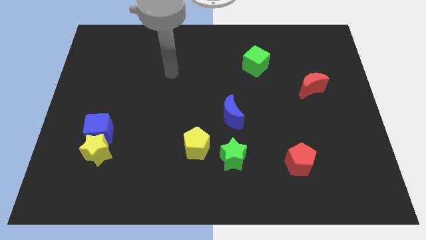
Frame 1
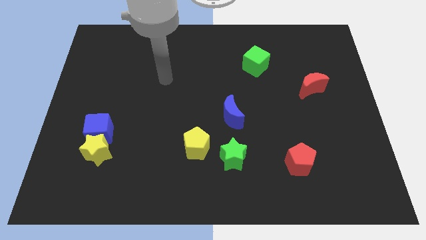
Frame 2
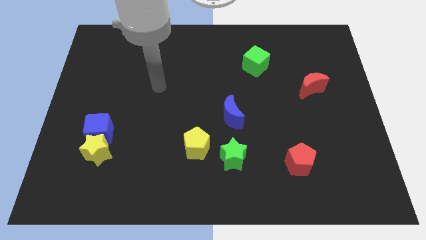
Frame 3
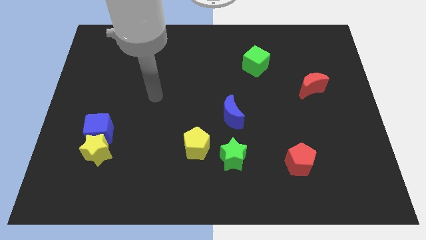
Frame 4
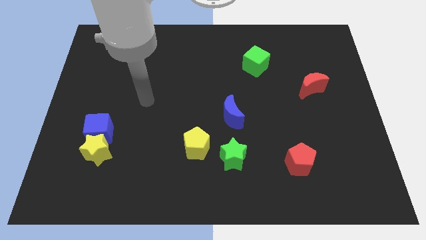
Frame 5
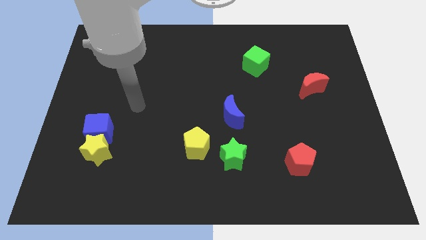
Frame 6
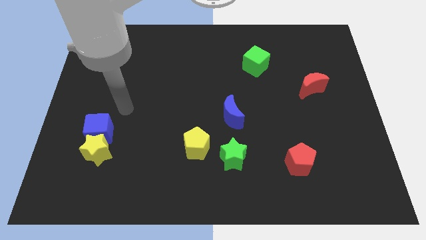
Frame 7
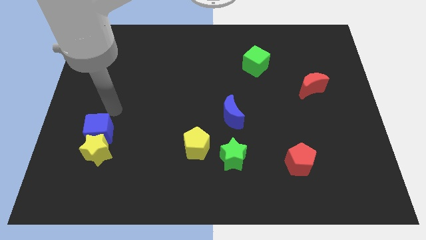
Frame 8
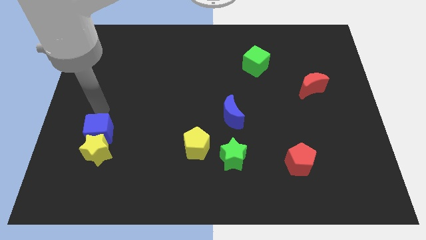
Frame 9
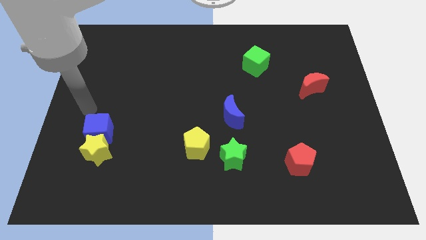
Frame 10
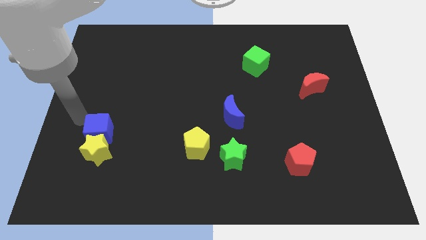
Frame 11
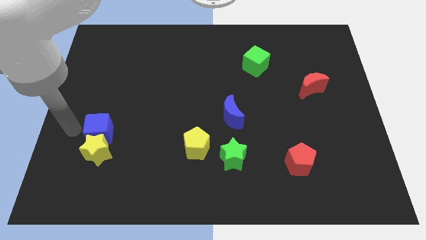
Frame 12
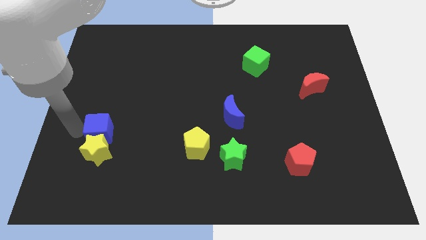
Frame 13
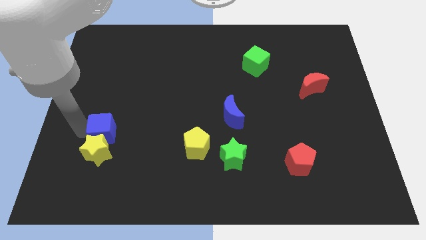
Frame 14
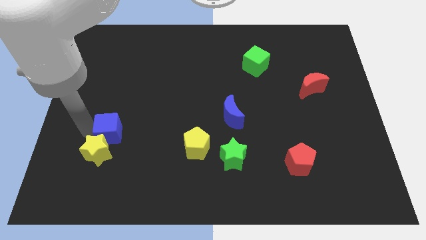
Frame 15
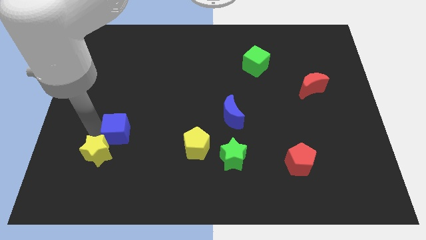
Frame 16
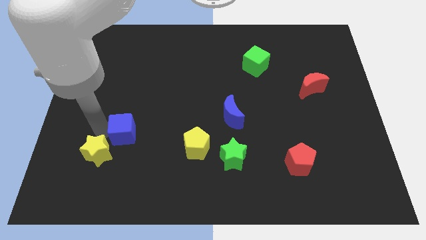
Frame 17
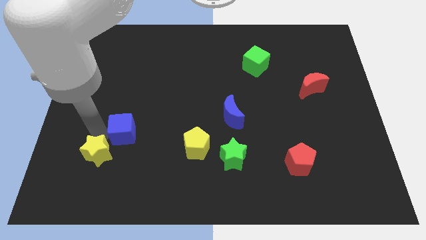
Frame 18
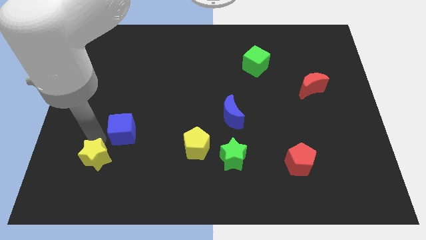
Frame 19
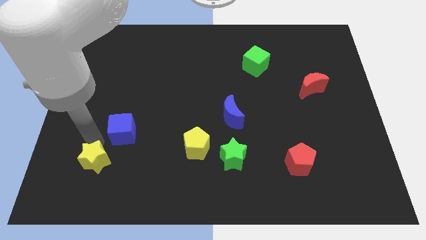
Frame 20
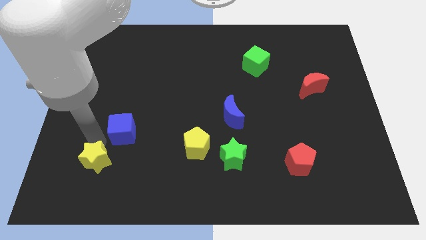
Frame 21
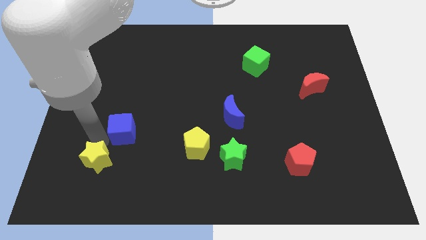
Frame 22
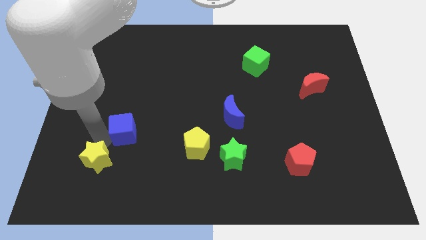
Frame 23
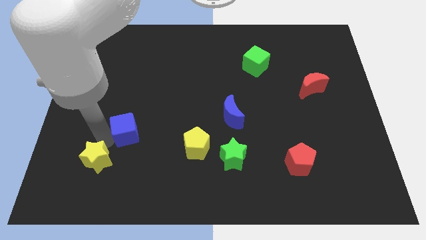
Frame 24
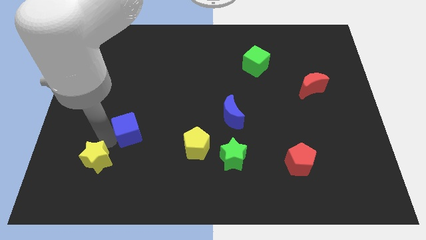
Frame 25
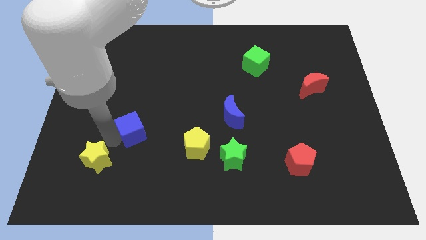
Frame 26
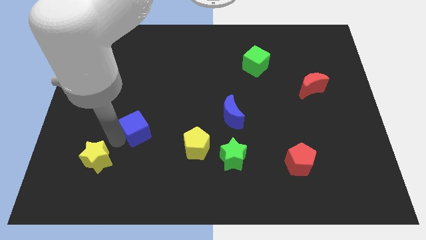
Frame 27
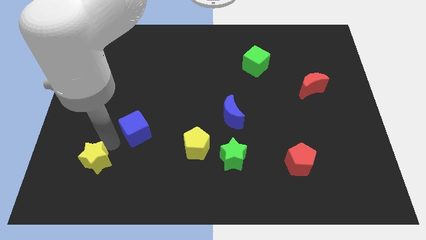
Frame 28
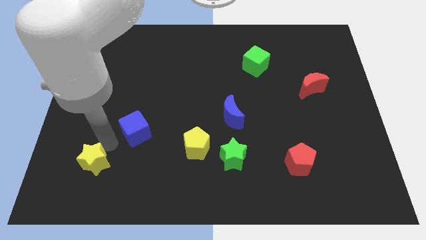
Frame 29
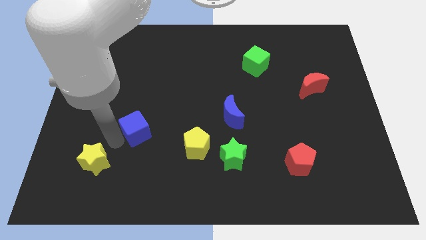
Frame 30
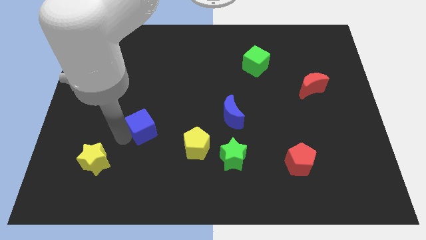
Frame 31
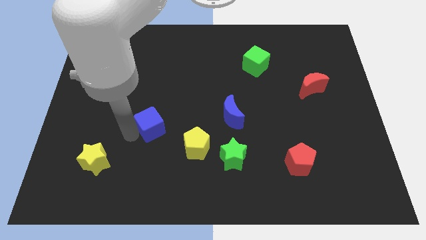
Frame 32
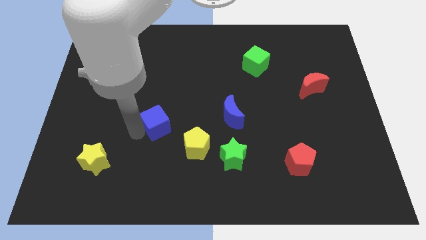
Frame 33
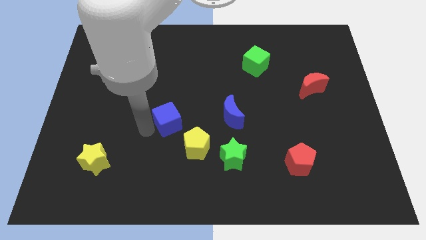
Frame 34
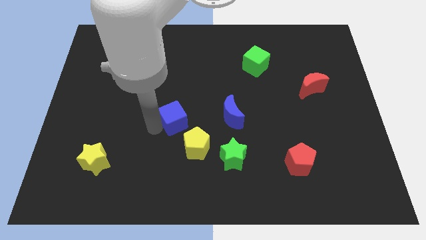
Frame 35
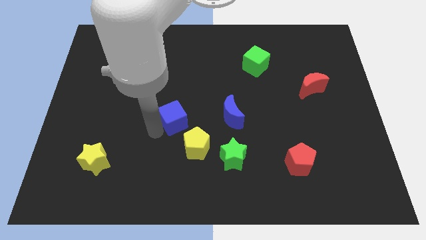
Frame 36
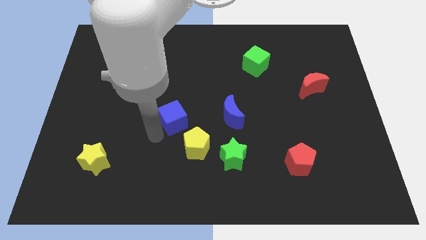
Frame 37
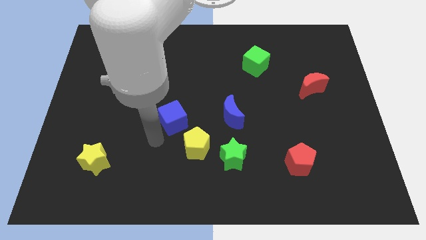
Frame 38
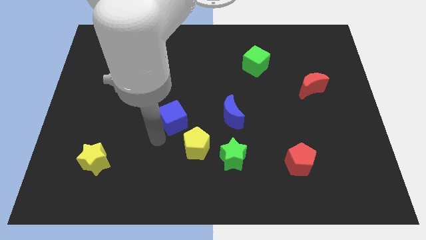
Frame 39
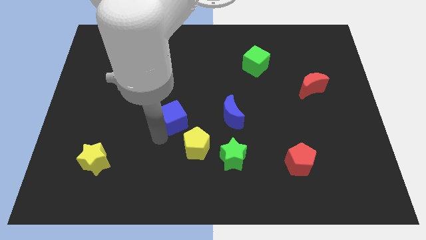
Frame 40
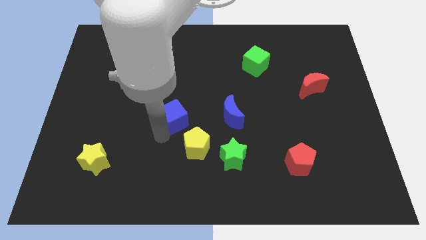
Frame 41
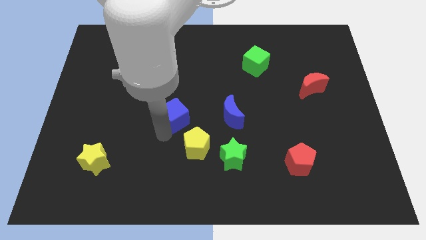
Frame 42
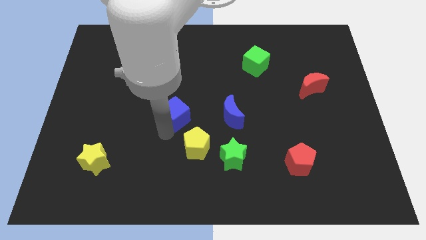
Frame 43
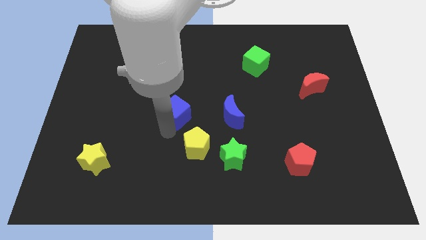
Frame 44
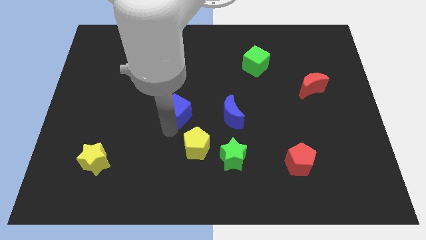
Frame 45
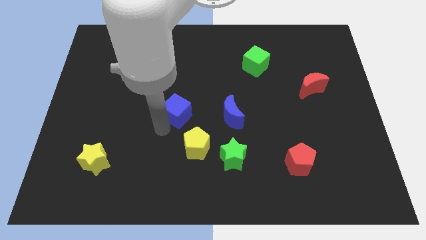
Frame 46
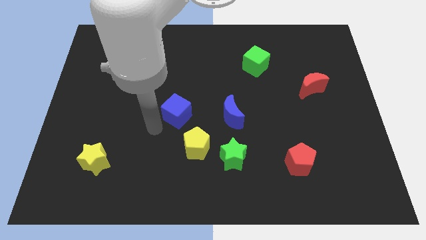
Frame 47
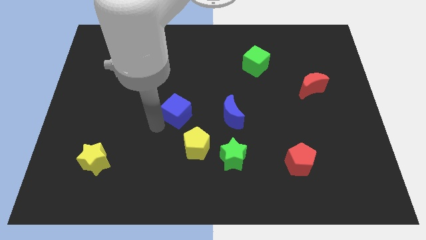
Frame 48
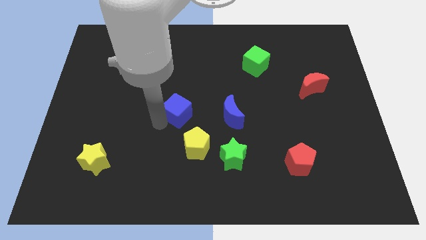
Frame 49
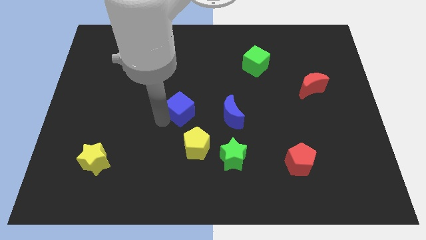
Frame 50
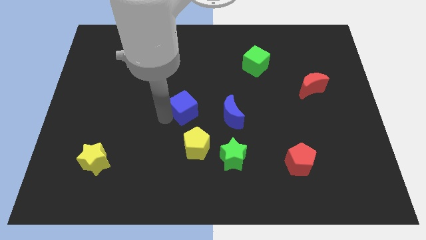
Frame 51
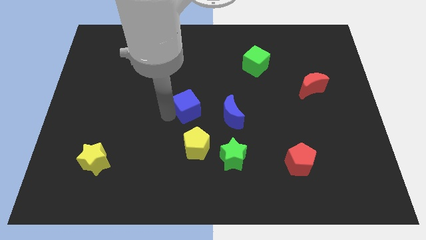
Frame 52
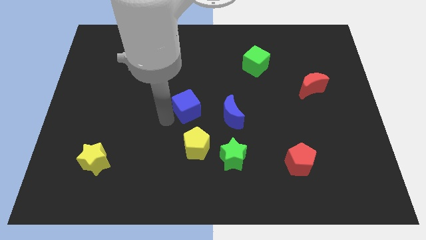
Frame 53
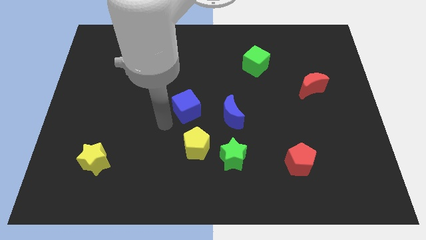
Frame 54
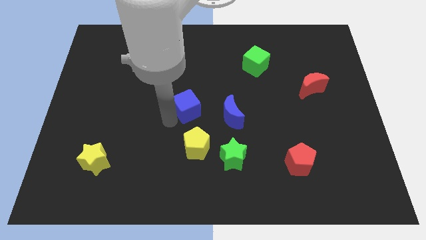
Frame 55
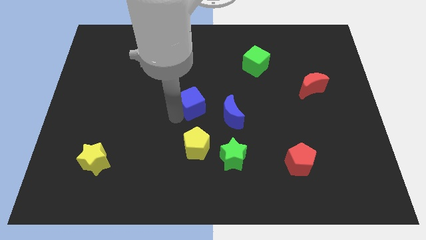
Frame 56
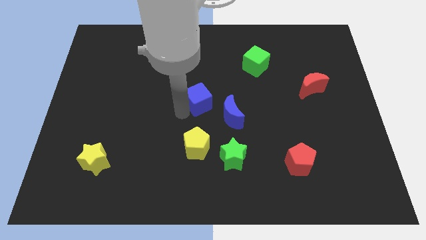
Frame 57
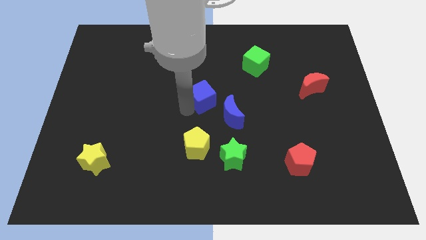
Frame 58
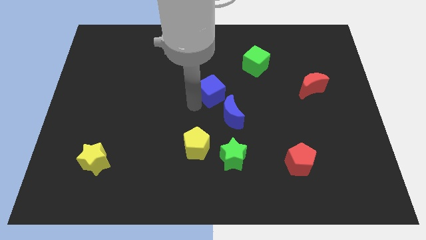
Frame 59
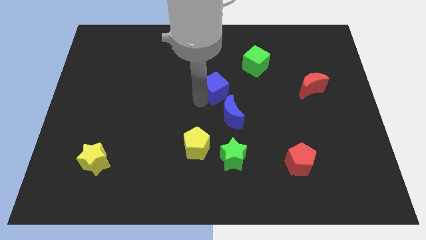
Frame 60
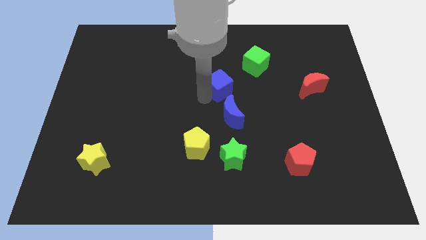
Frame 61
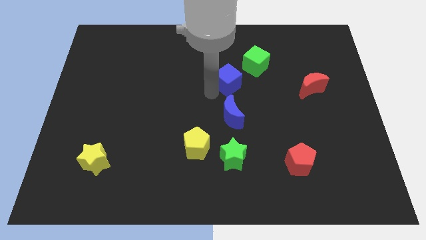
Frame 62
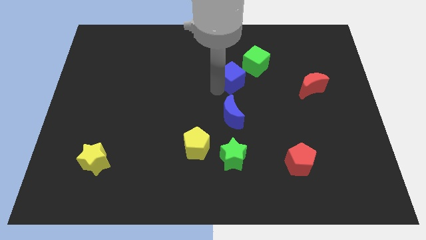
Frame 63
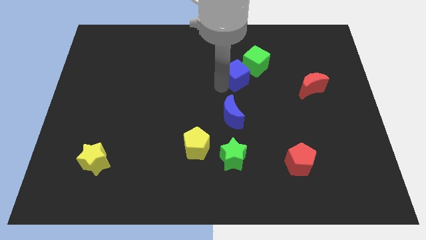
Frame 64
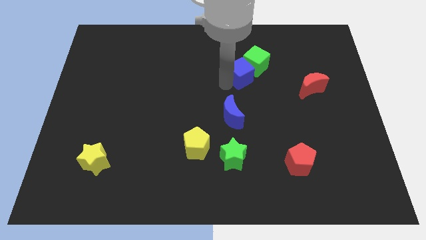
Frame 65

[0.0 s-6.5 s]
push the blue cube to the green cube

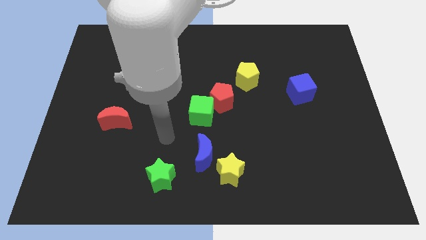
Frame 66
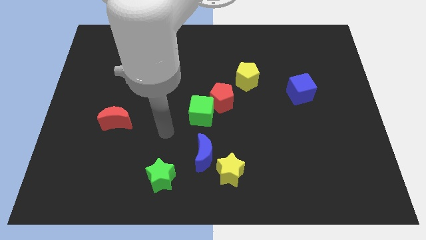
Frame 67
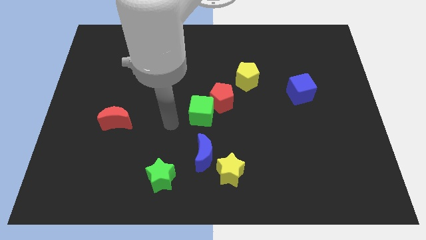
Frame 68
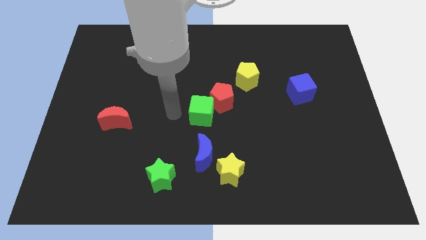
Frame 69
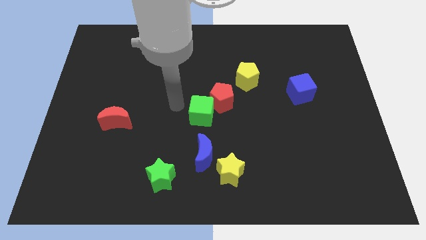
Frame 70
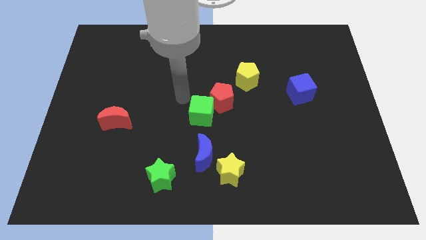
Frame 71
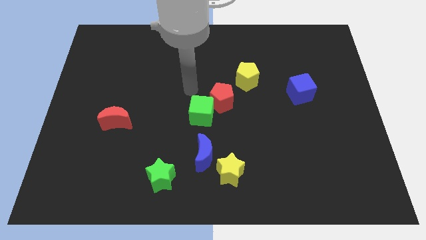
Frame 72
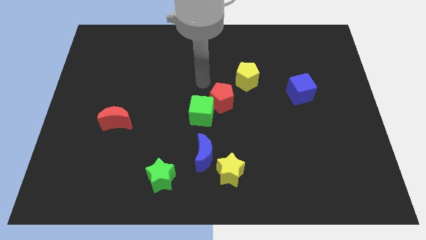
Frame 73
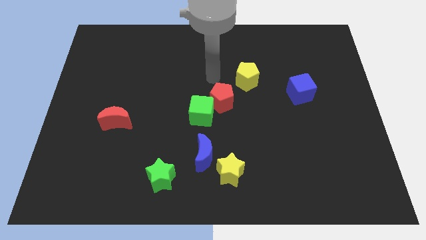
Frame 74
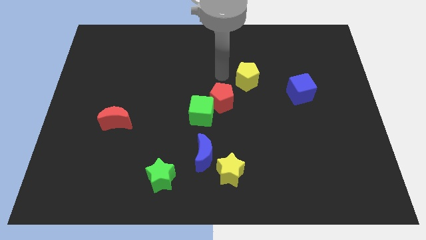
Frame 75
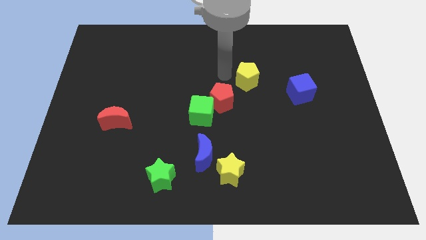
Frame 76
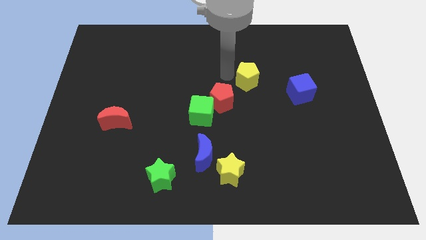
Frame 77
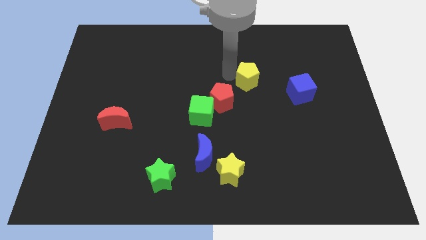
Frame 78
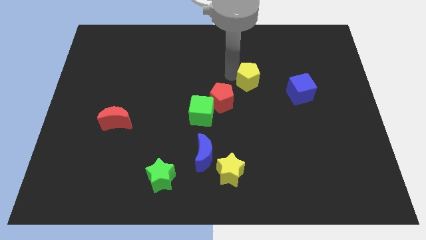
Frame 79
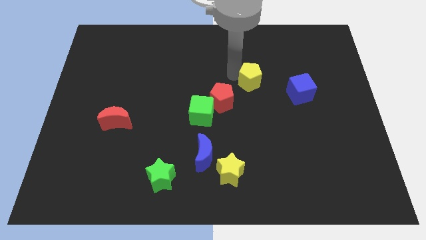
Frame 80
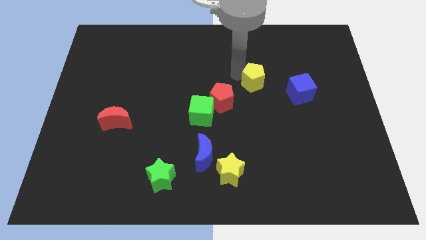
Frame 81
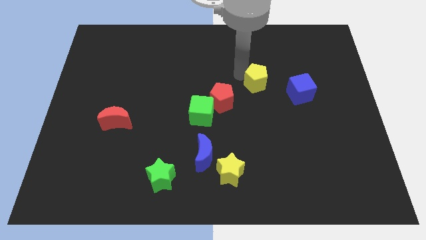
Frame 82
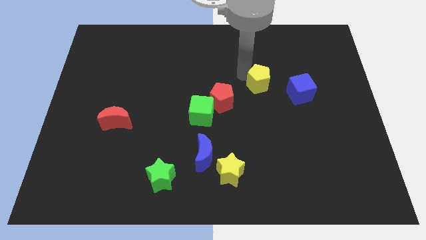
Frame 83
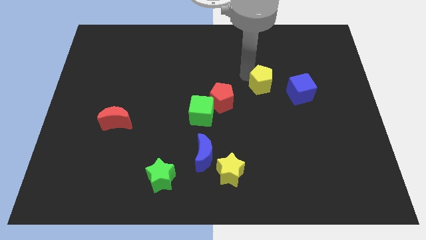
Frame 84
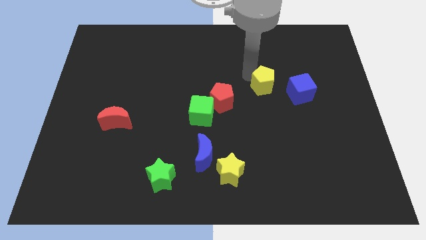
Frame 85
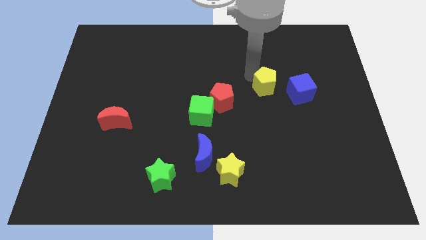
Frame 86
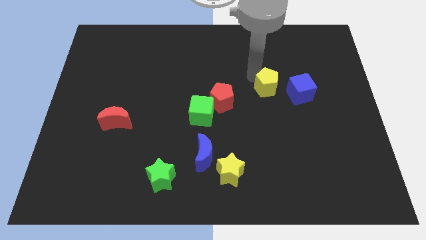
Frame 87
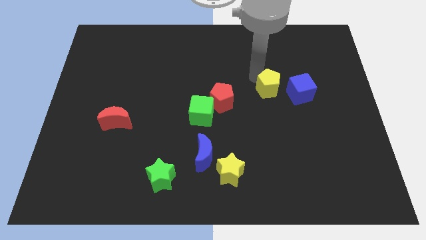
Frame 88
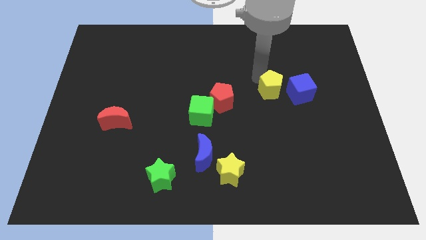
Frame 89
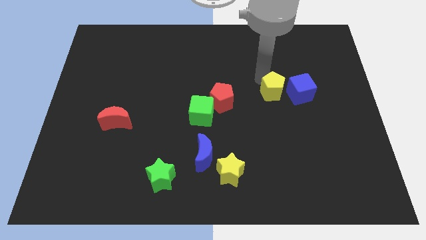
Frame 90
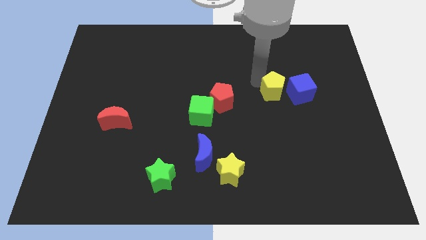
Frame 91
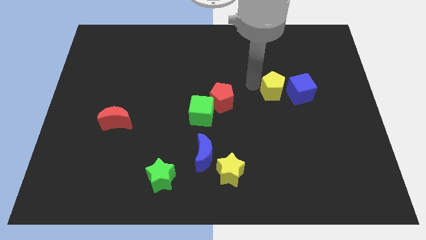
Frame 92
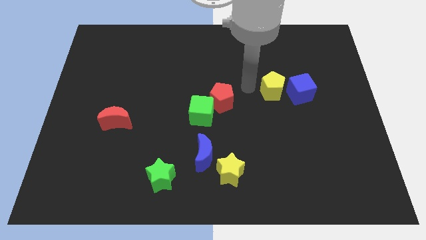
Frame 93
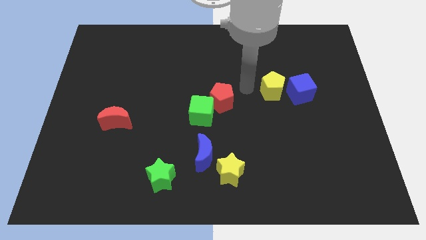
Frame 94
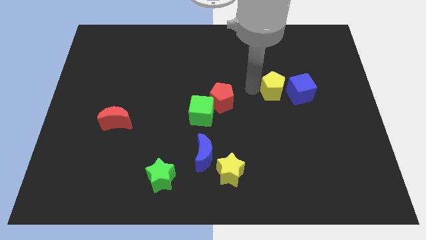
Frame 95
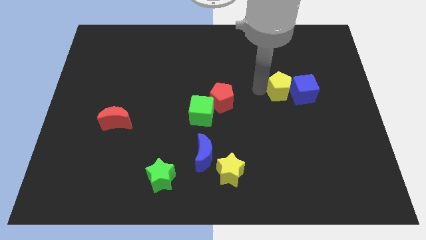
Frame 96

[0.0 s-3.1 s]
slide the yellow pentagon next to the blue cube
